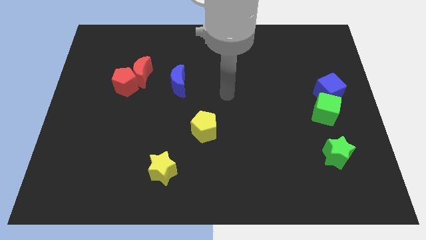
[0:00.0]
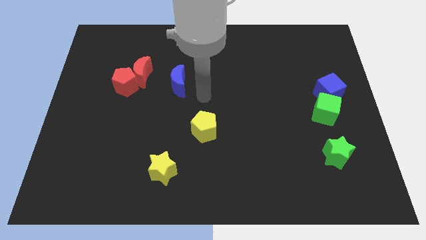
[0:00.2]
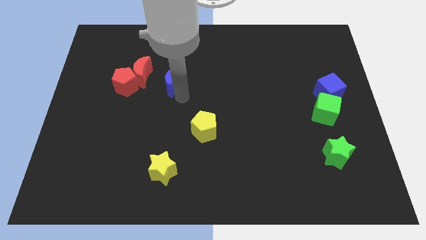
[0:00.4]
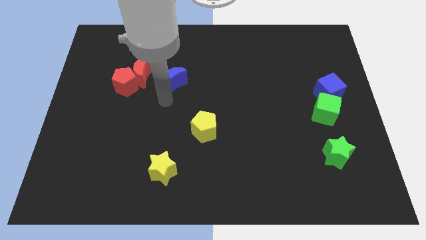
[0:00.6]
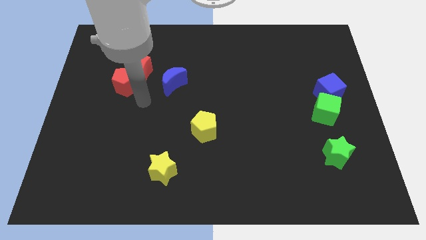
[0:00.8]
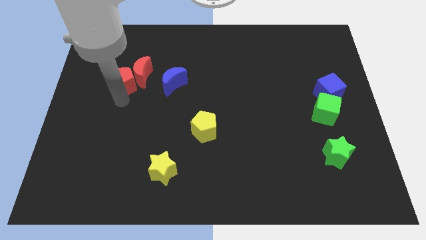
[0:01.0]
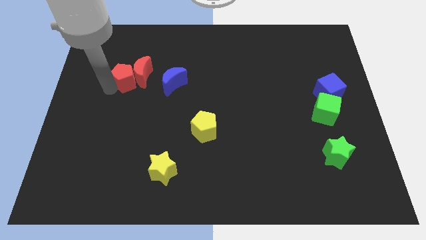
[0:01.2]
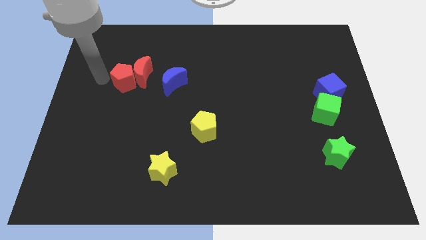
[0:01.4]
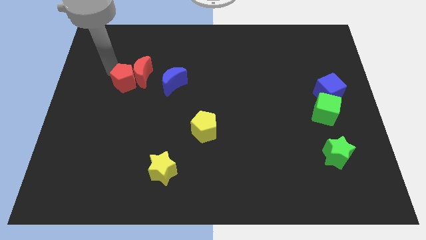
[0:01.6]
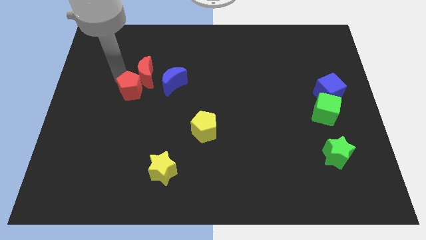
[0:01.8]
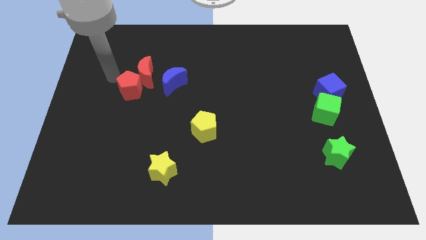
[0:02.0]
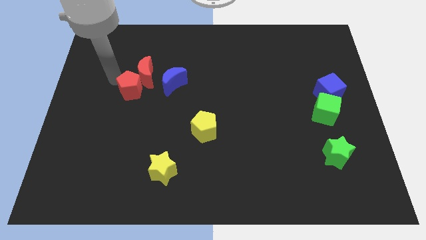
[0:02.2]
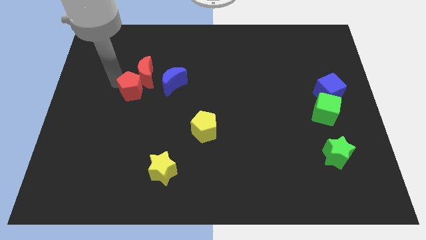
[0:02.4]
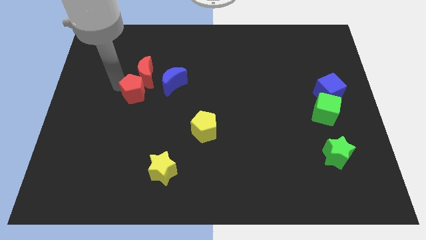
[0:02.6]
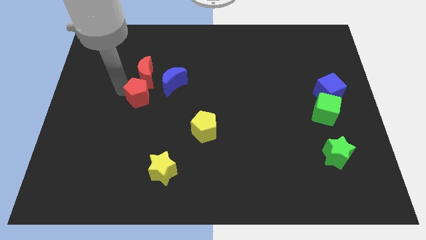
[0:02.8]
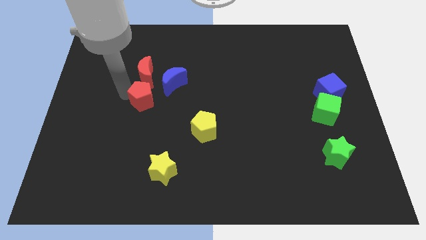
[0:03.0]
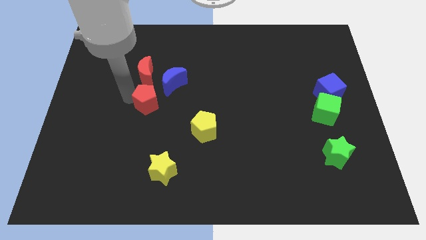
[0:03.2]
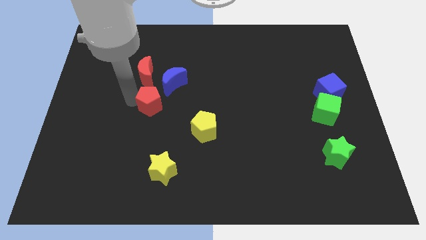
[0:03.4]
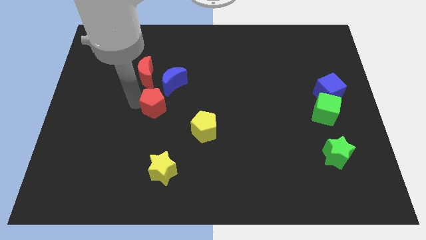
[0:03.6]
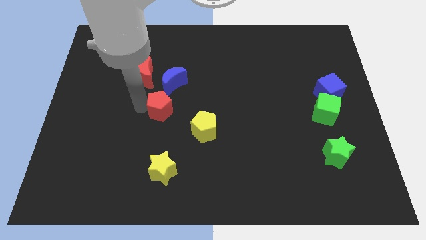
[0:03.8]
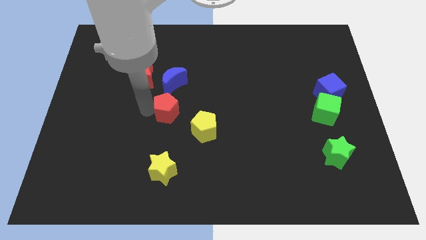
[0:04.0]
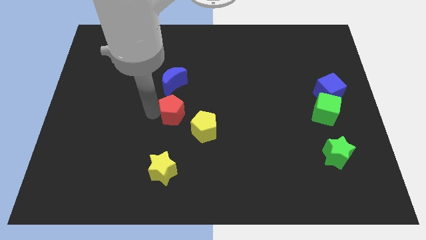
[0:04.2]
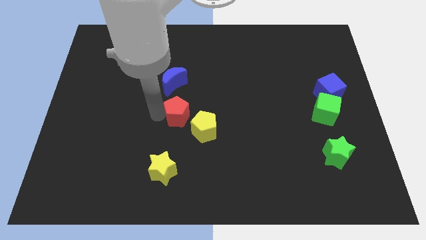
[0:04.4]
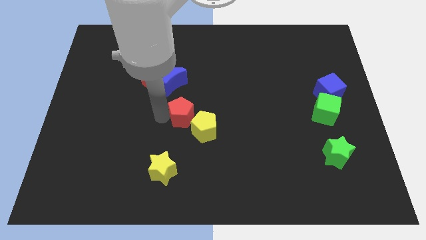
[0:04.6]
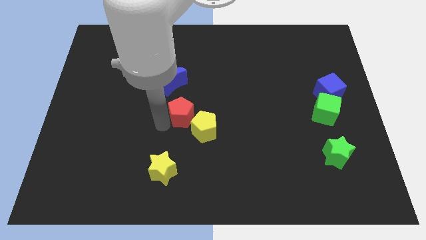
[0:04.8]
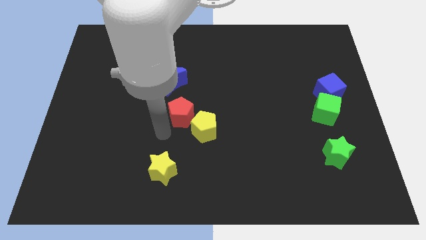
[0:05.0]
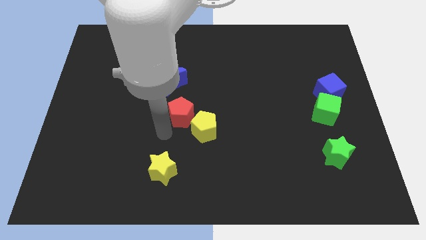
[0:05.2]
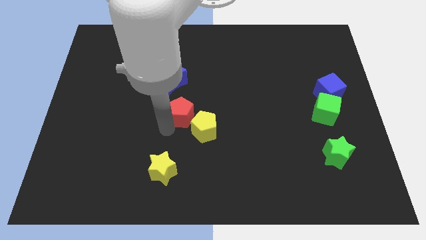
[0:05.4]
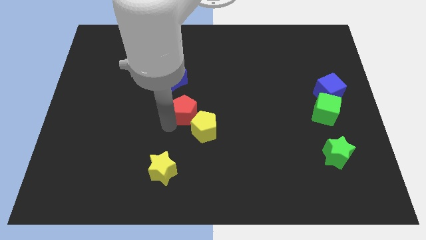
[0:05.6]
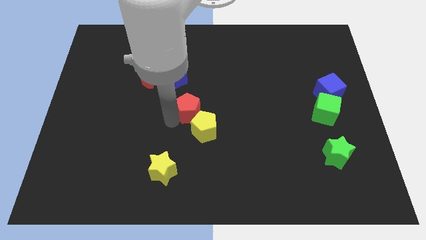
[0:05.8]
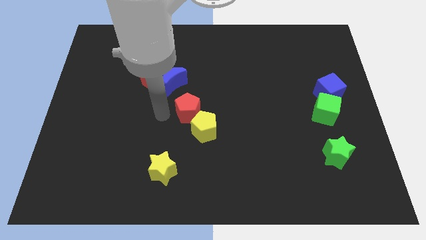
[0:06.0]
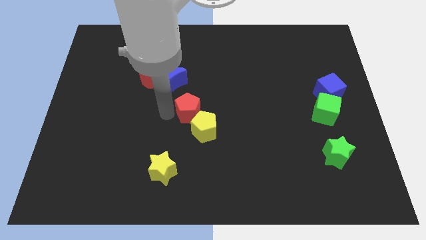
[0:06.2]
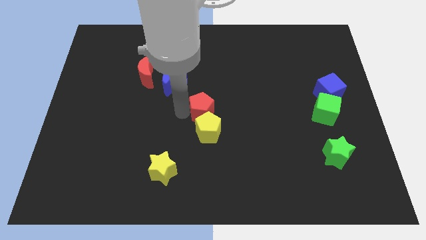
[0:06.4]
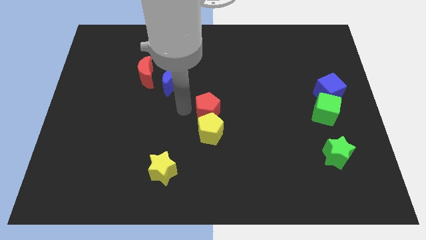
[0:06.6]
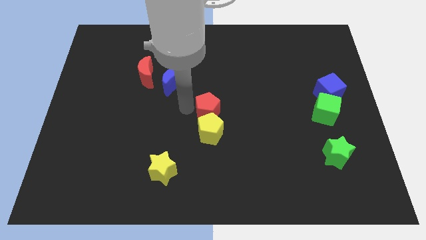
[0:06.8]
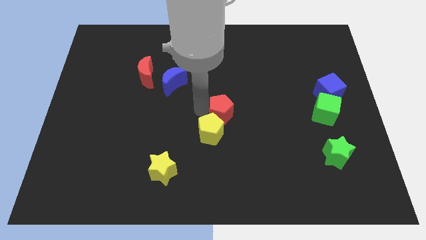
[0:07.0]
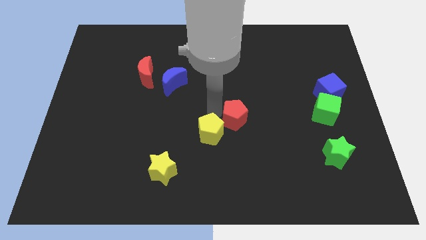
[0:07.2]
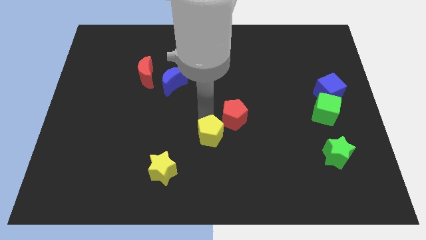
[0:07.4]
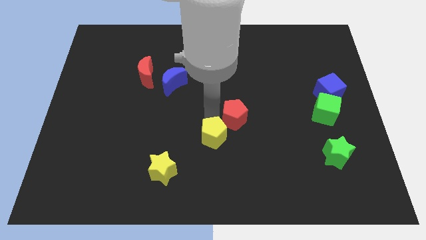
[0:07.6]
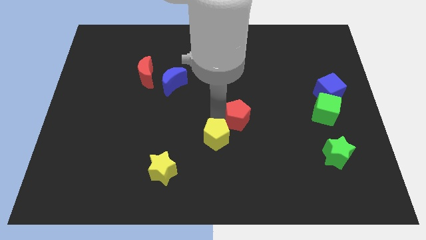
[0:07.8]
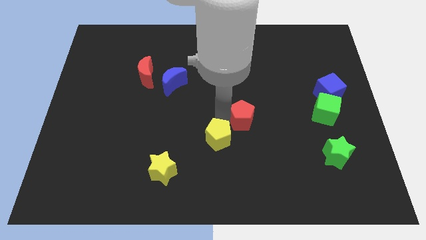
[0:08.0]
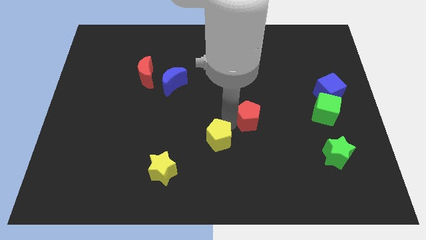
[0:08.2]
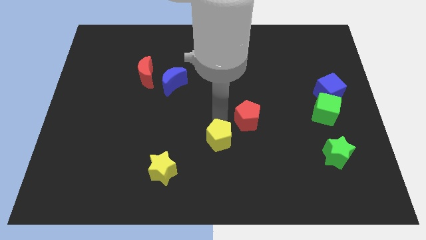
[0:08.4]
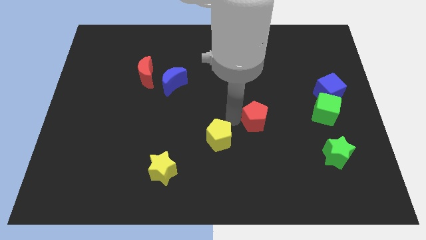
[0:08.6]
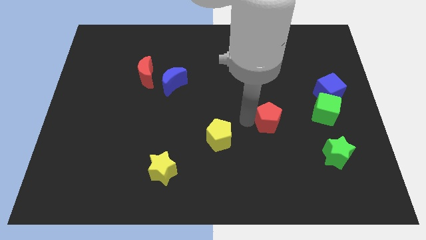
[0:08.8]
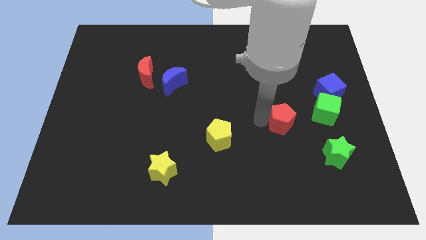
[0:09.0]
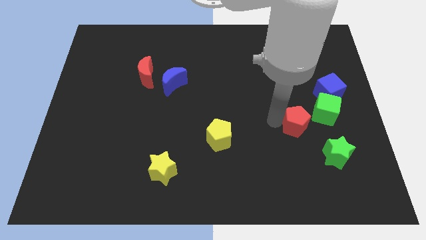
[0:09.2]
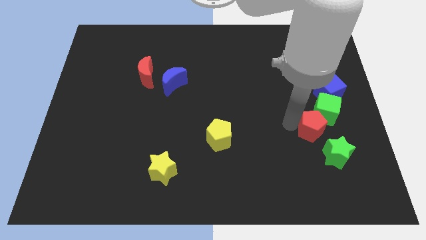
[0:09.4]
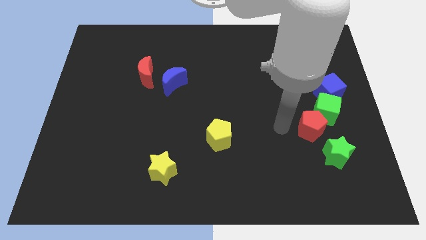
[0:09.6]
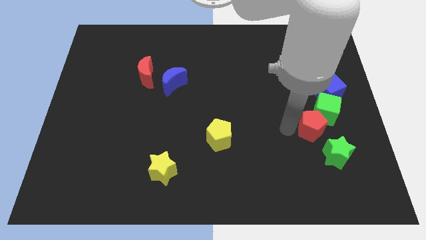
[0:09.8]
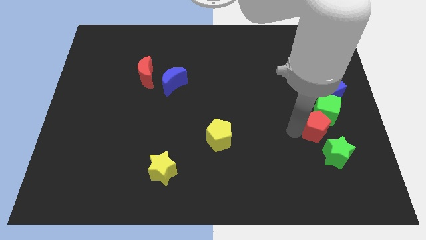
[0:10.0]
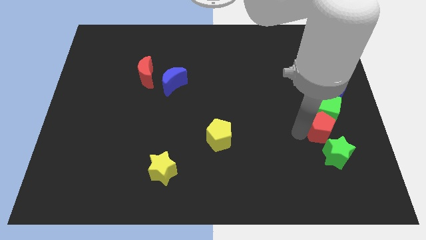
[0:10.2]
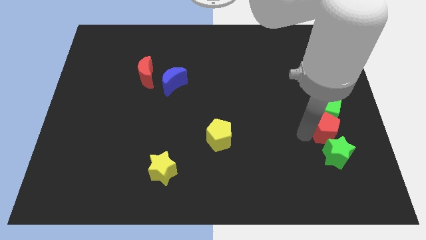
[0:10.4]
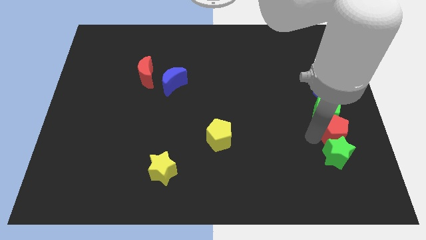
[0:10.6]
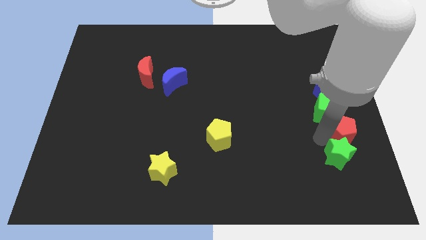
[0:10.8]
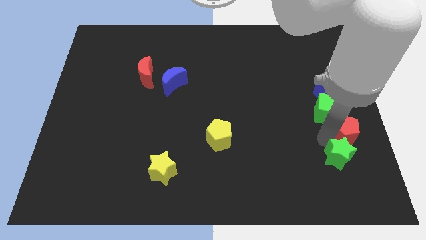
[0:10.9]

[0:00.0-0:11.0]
push the red pentagon to the right side of the board

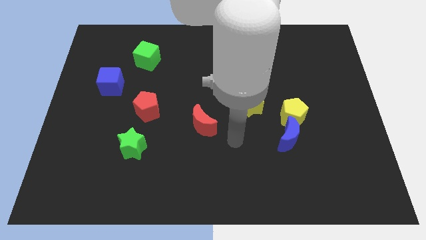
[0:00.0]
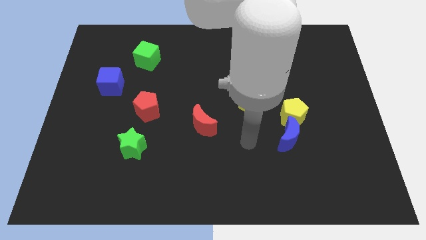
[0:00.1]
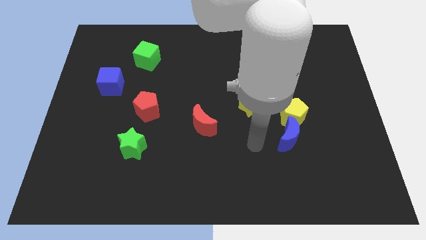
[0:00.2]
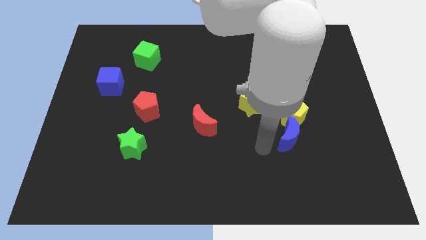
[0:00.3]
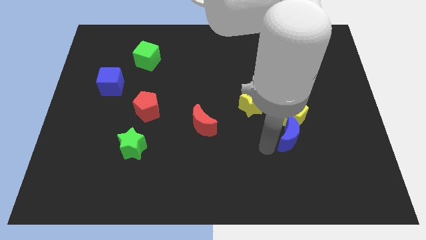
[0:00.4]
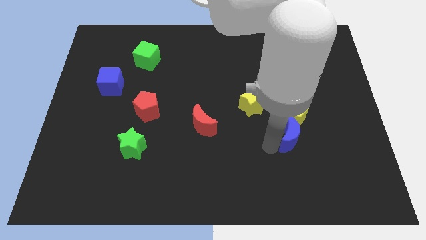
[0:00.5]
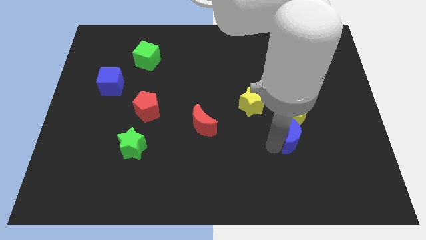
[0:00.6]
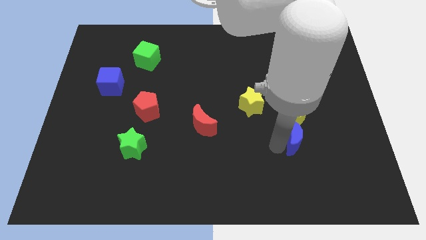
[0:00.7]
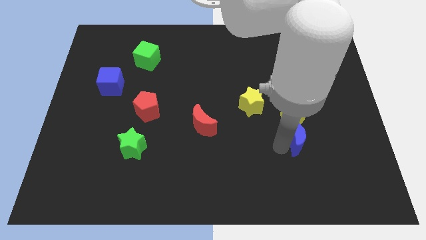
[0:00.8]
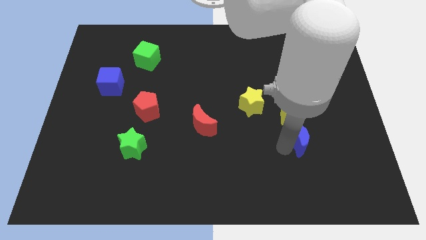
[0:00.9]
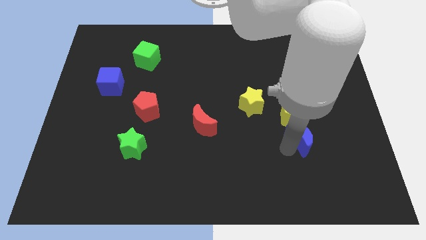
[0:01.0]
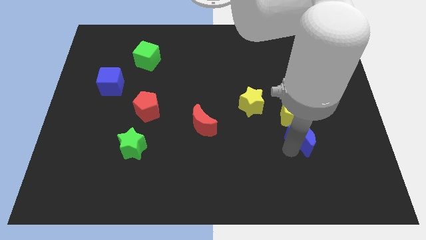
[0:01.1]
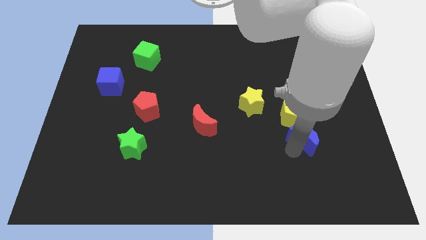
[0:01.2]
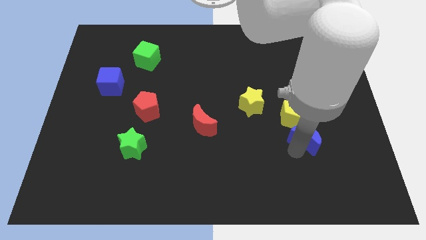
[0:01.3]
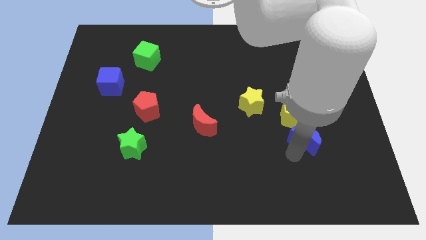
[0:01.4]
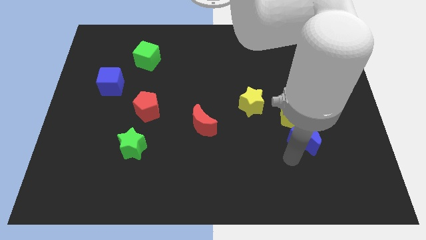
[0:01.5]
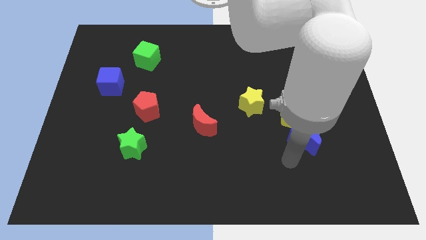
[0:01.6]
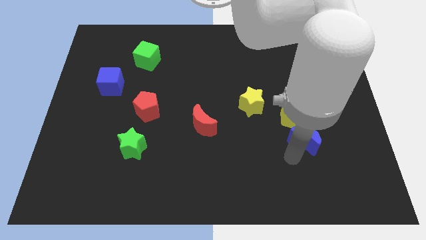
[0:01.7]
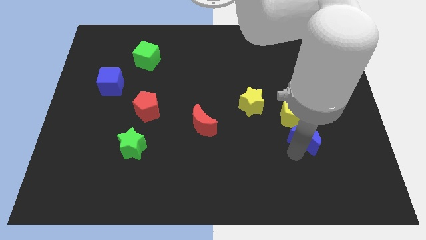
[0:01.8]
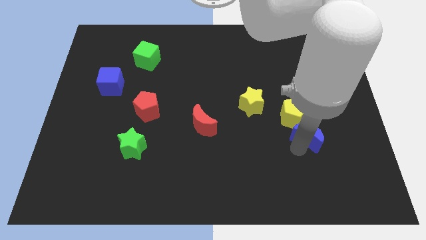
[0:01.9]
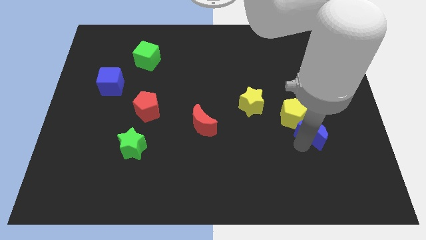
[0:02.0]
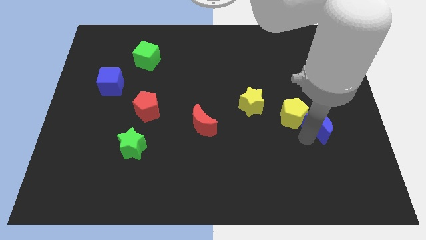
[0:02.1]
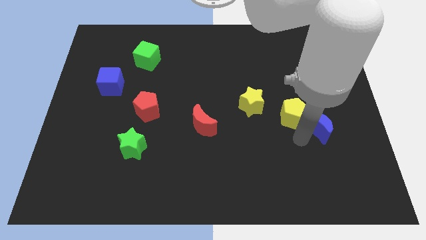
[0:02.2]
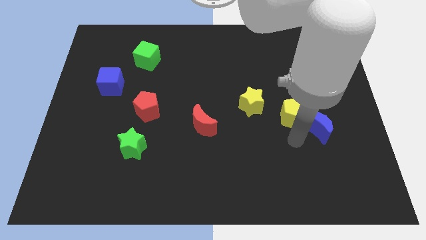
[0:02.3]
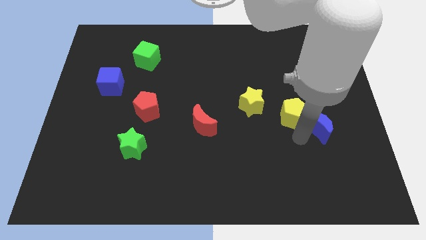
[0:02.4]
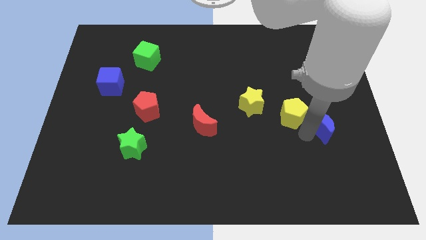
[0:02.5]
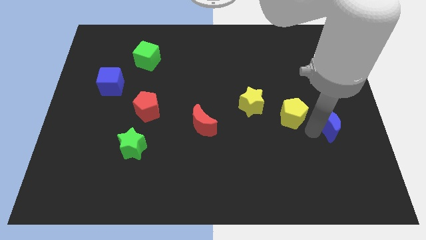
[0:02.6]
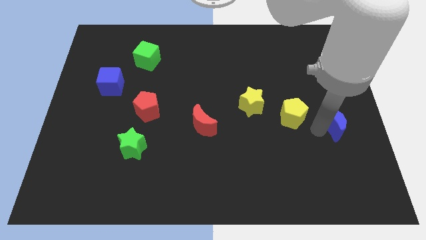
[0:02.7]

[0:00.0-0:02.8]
move the blue moon to the right side of the board
